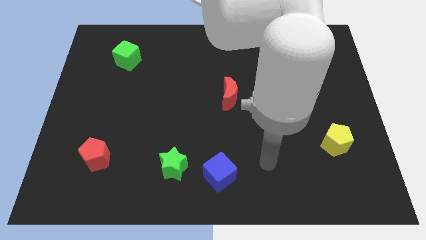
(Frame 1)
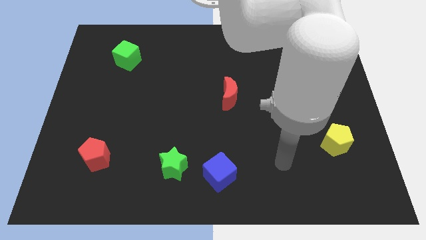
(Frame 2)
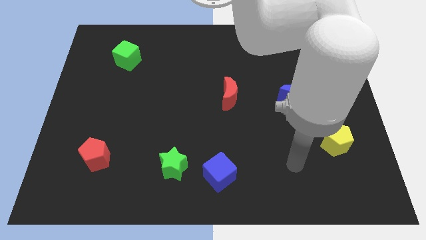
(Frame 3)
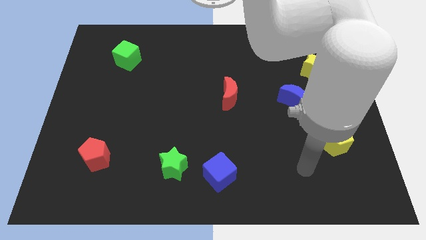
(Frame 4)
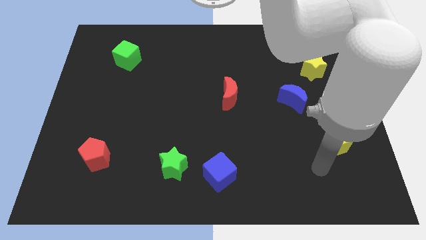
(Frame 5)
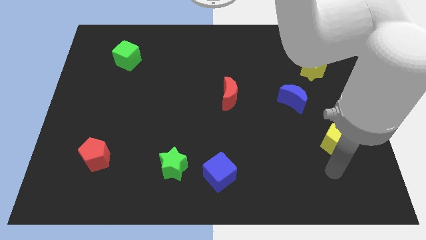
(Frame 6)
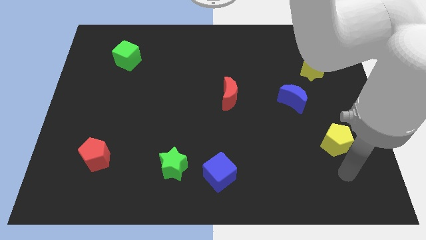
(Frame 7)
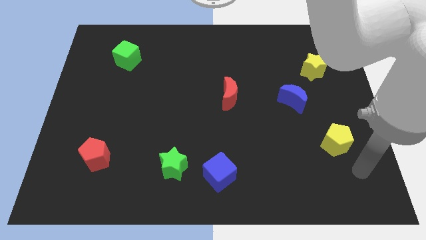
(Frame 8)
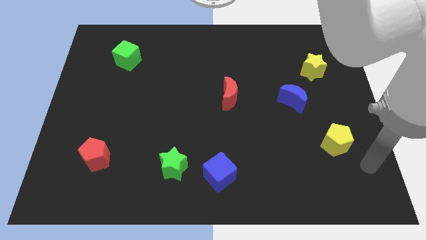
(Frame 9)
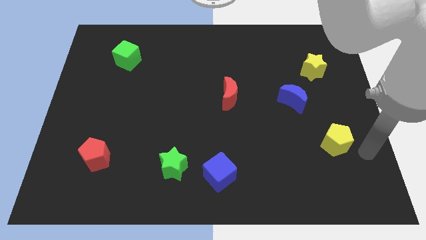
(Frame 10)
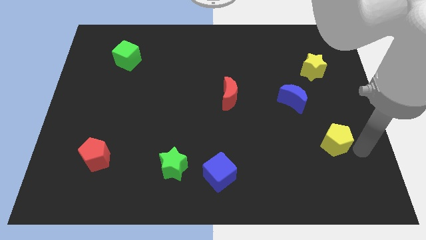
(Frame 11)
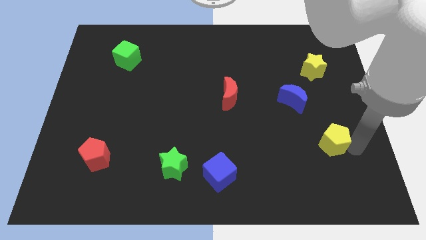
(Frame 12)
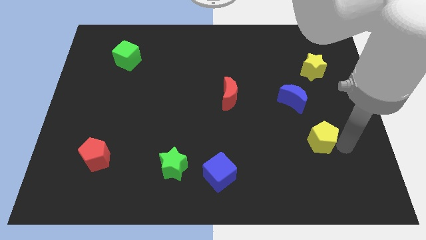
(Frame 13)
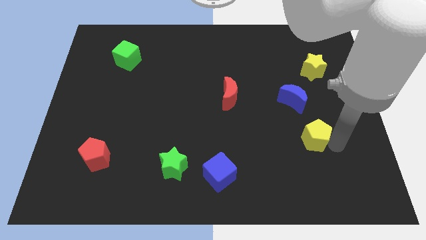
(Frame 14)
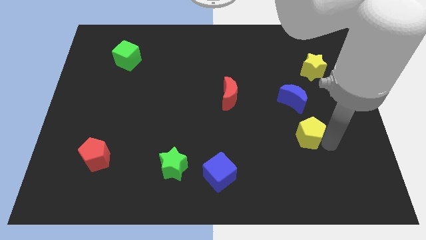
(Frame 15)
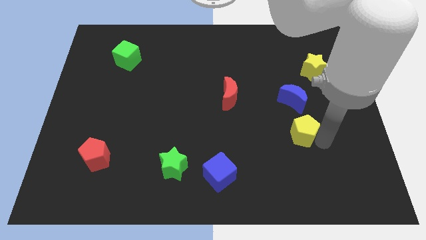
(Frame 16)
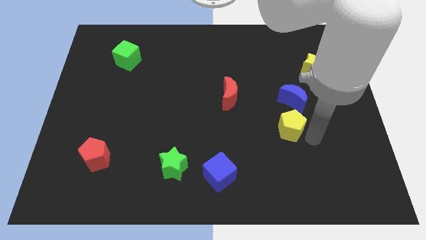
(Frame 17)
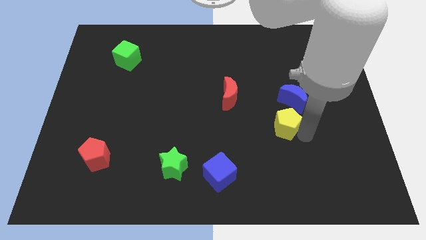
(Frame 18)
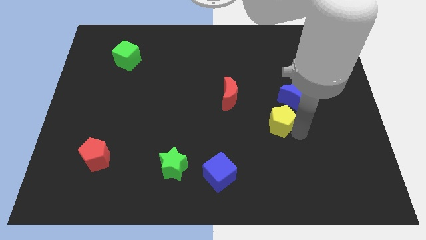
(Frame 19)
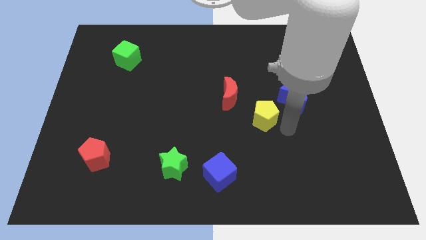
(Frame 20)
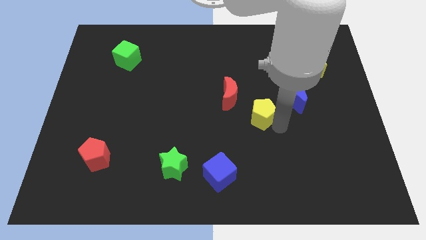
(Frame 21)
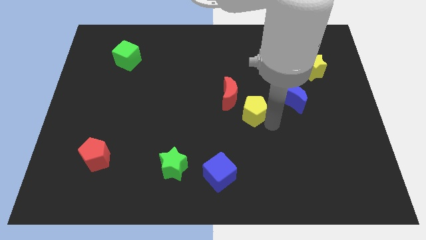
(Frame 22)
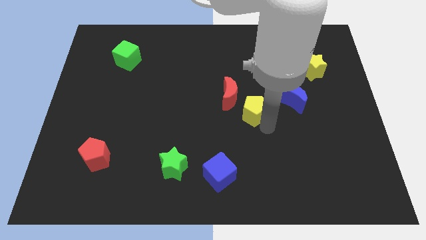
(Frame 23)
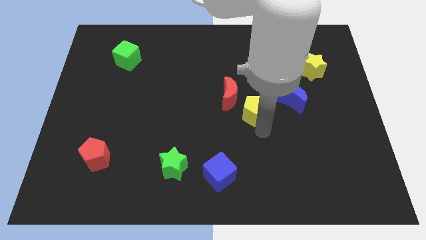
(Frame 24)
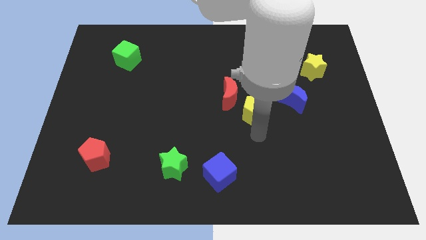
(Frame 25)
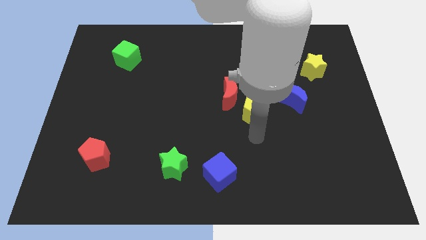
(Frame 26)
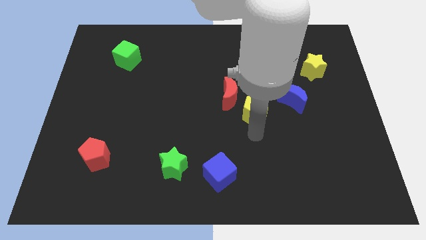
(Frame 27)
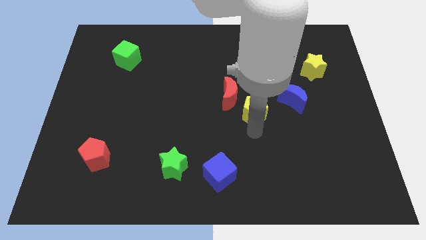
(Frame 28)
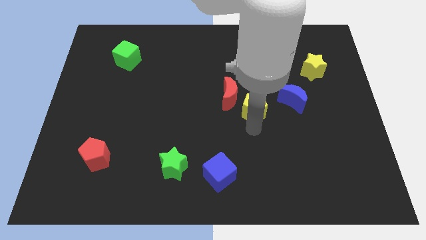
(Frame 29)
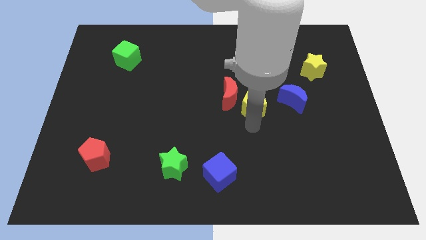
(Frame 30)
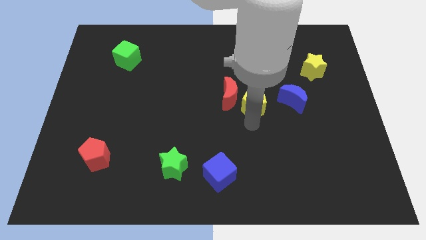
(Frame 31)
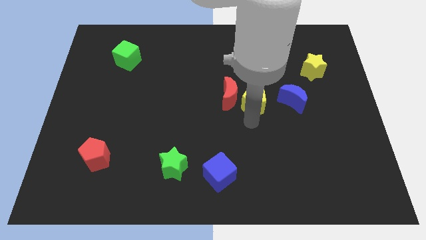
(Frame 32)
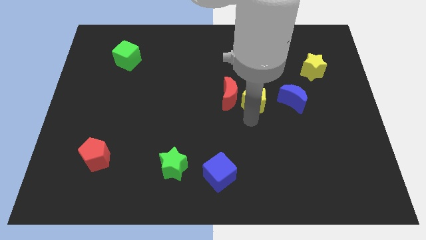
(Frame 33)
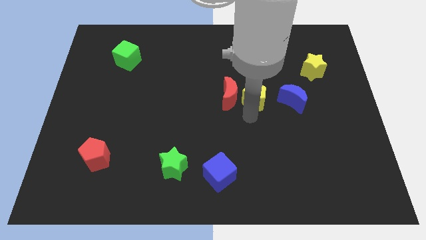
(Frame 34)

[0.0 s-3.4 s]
push the yellow pentagon up and to the left diagonally

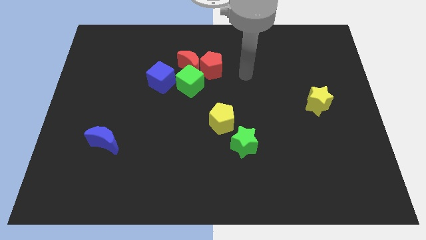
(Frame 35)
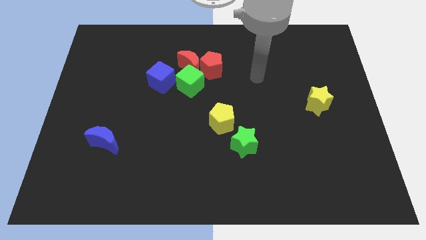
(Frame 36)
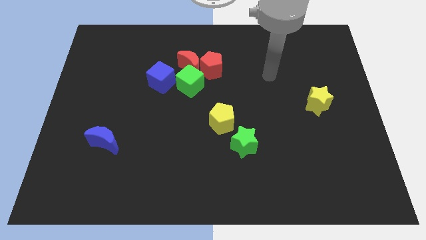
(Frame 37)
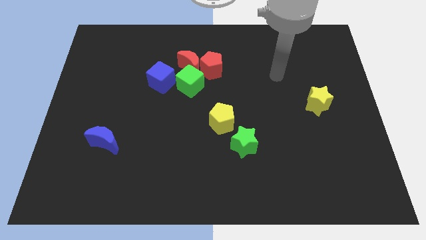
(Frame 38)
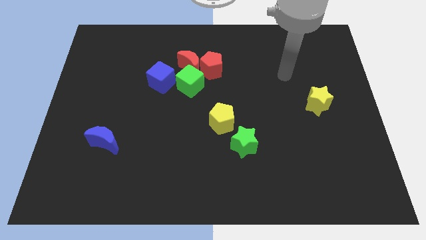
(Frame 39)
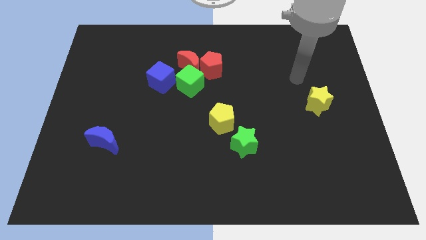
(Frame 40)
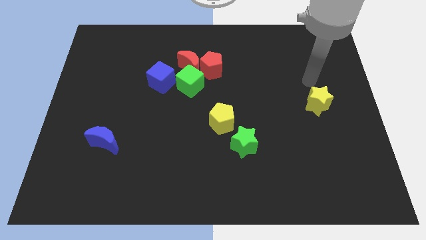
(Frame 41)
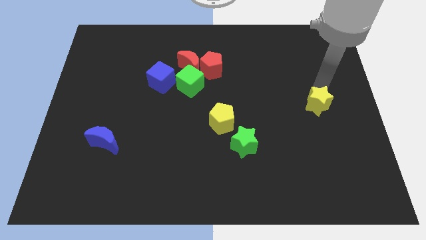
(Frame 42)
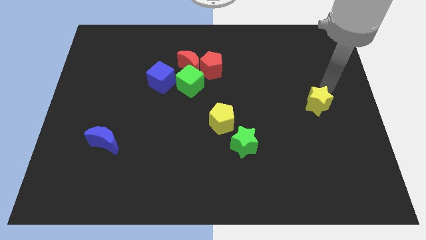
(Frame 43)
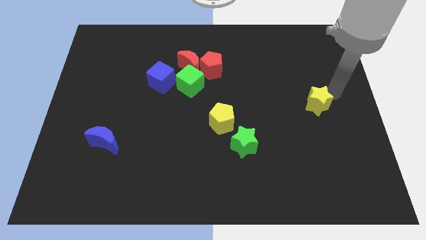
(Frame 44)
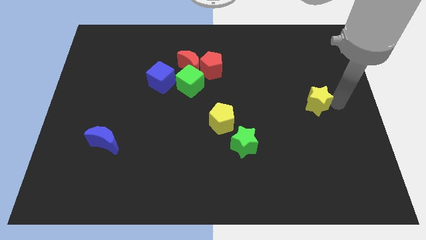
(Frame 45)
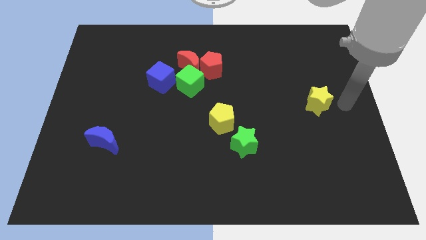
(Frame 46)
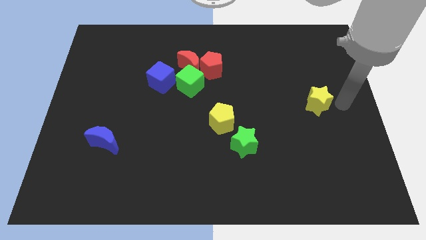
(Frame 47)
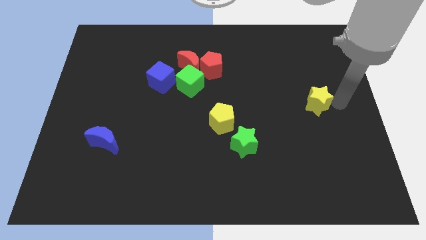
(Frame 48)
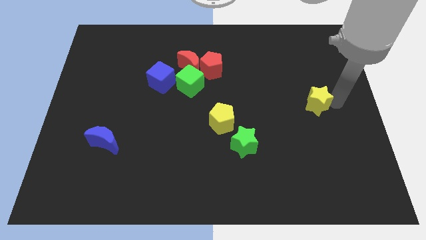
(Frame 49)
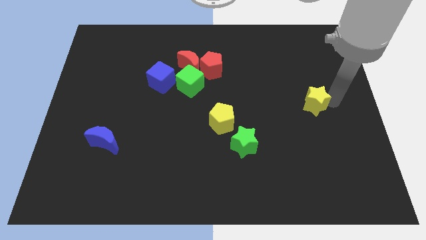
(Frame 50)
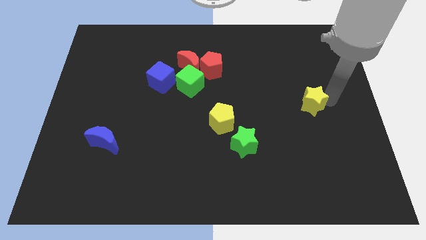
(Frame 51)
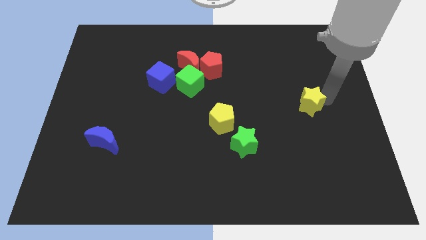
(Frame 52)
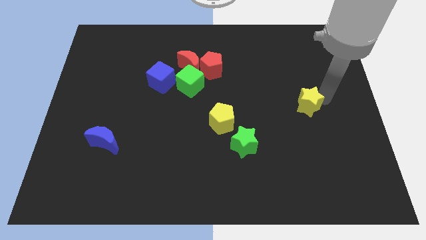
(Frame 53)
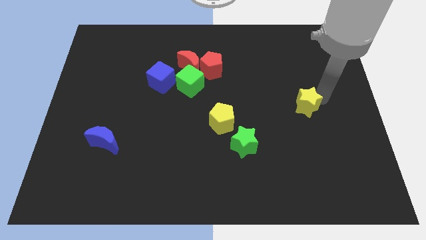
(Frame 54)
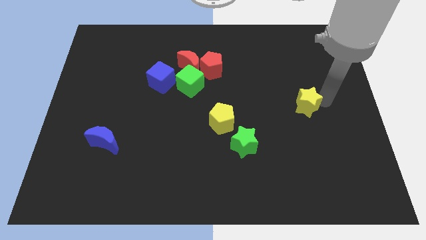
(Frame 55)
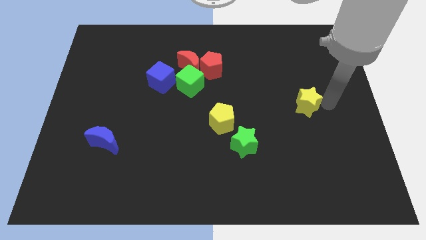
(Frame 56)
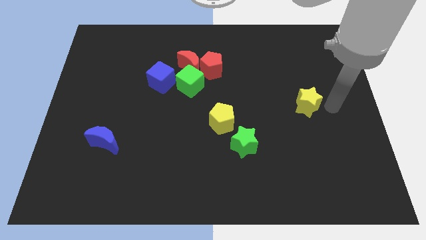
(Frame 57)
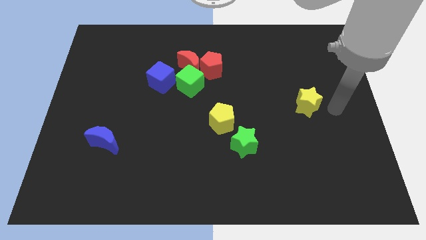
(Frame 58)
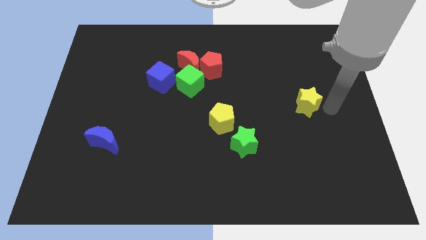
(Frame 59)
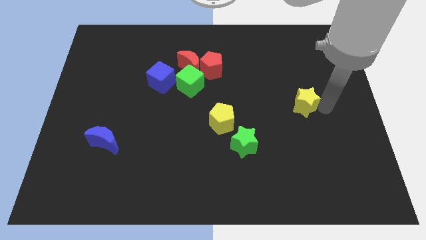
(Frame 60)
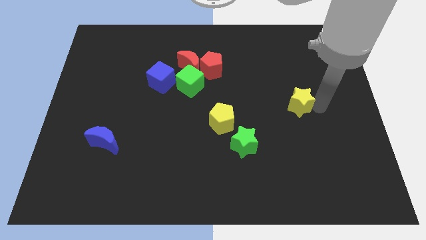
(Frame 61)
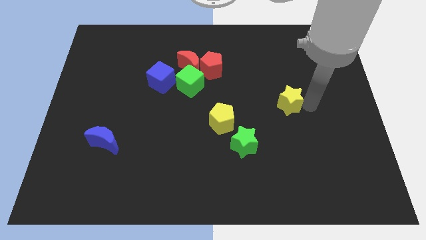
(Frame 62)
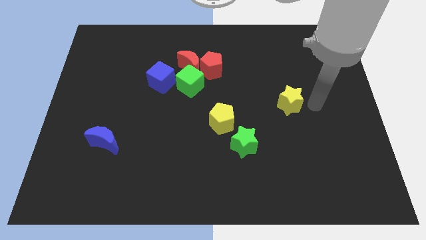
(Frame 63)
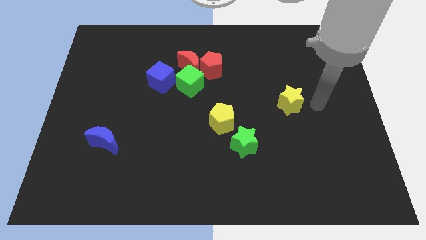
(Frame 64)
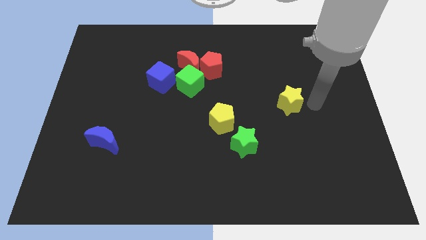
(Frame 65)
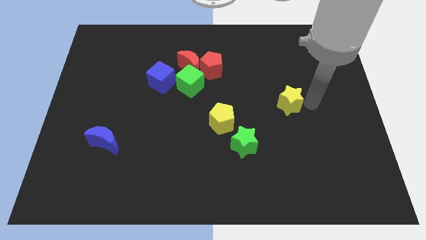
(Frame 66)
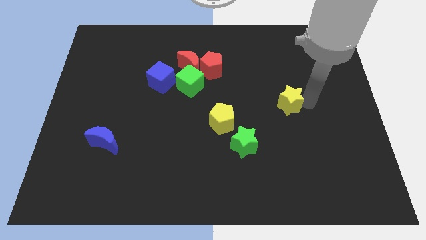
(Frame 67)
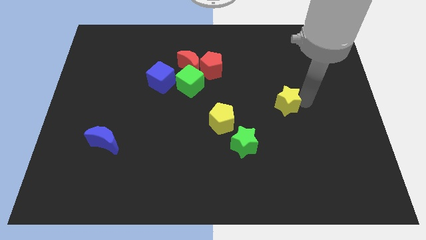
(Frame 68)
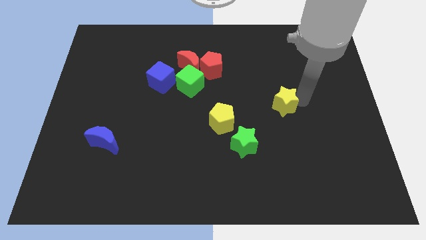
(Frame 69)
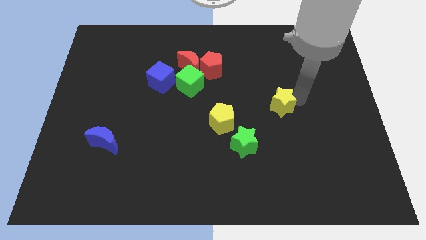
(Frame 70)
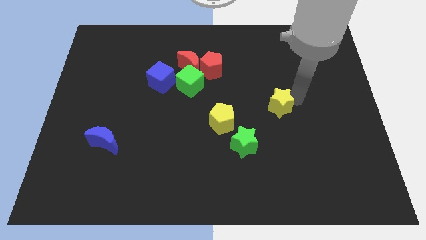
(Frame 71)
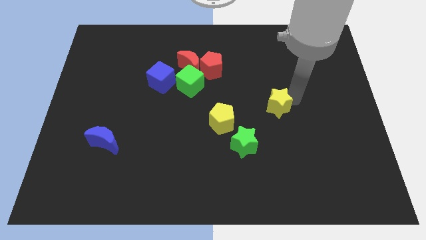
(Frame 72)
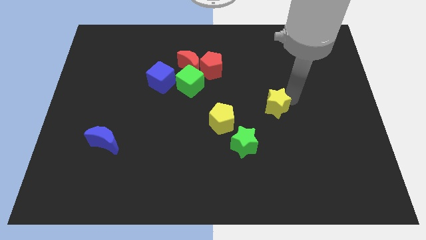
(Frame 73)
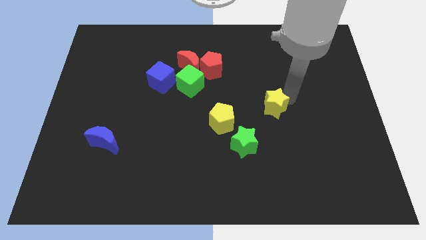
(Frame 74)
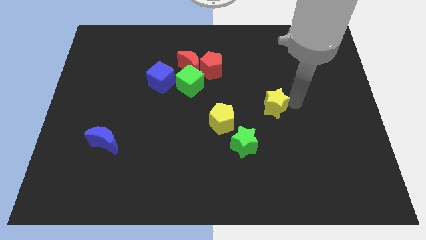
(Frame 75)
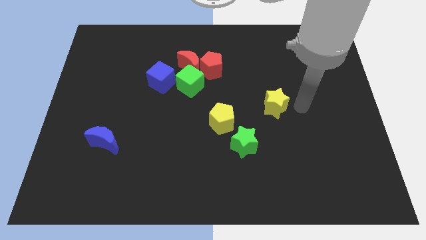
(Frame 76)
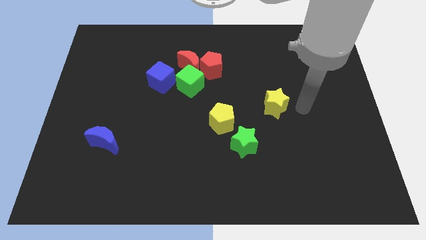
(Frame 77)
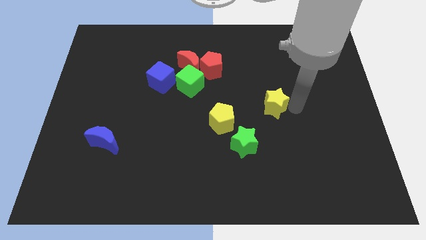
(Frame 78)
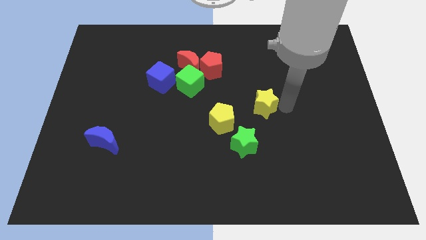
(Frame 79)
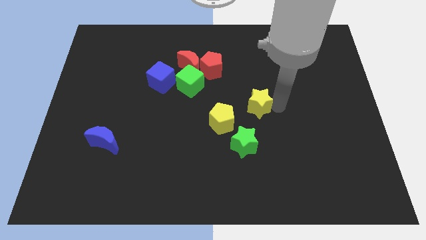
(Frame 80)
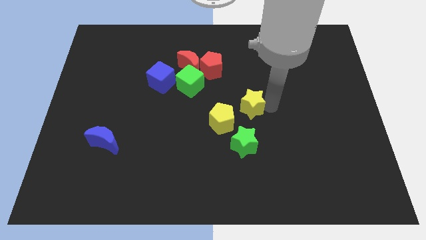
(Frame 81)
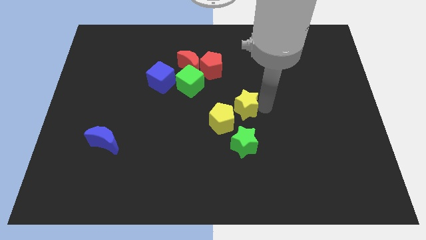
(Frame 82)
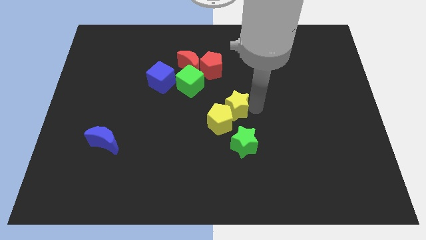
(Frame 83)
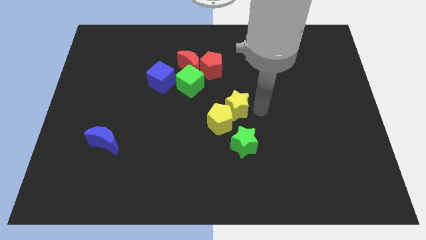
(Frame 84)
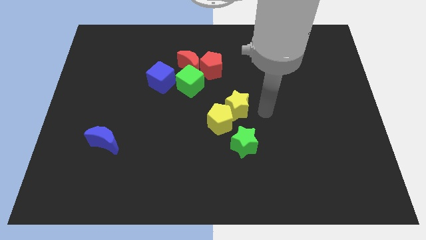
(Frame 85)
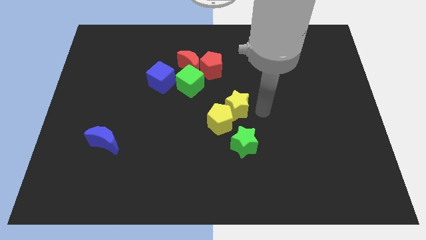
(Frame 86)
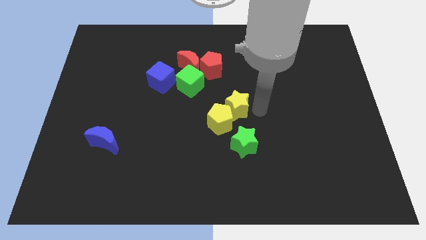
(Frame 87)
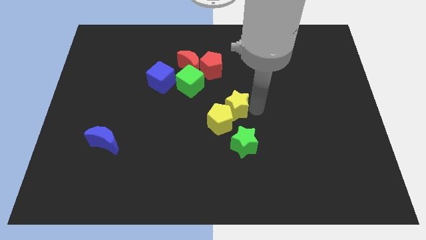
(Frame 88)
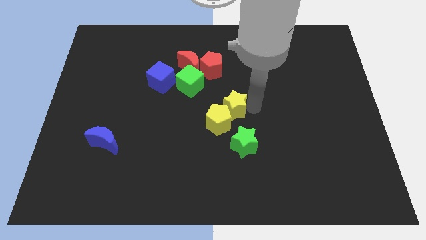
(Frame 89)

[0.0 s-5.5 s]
slide the yellow star to the left
